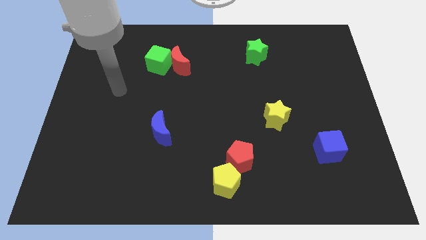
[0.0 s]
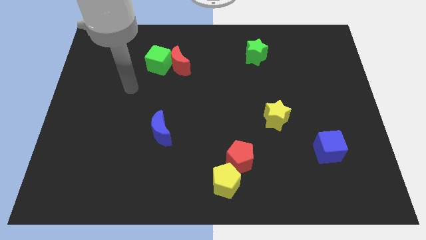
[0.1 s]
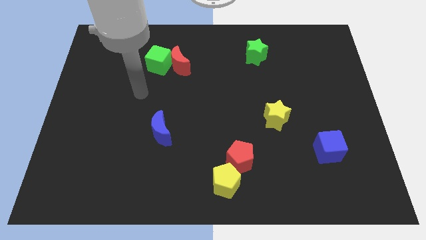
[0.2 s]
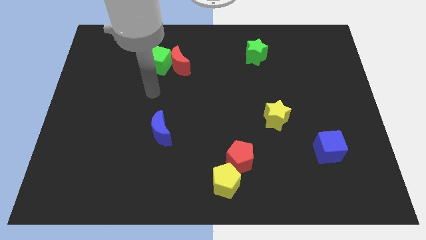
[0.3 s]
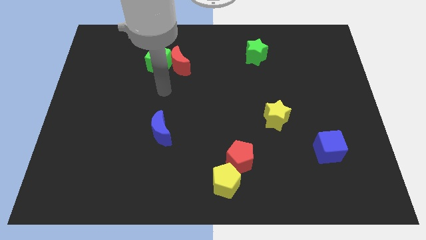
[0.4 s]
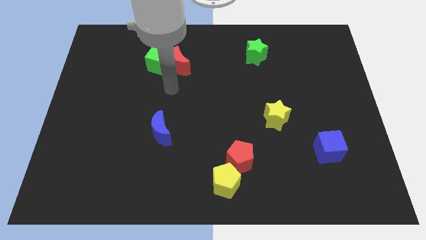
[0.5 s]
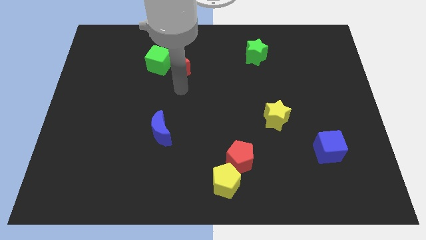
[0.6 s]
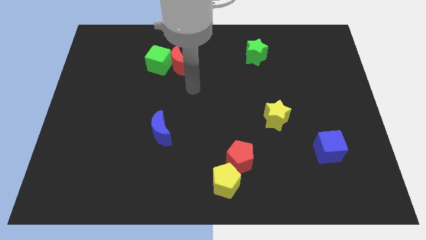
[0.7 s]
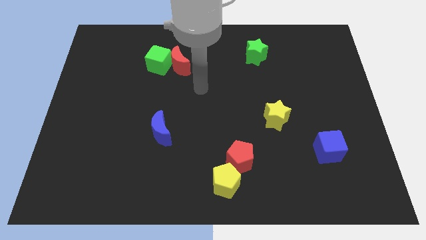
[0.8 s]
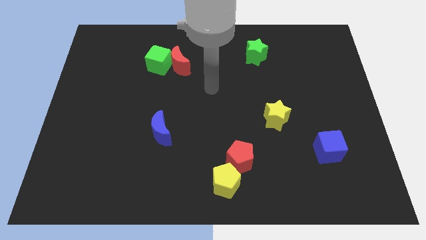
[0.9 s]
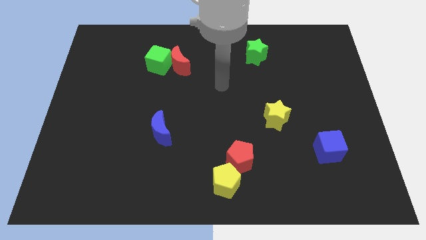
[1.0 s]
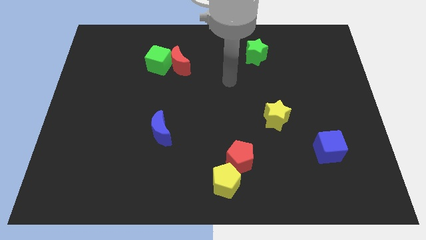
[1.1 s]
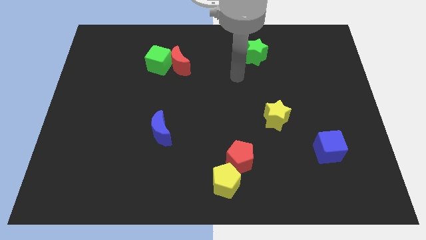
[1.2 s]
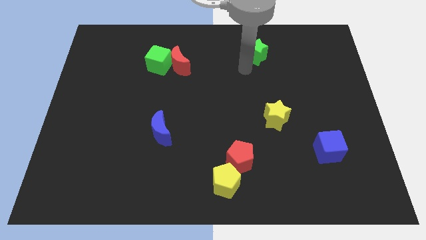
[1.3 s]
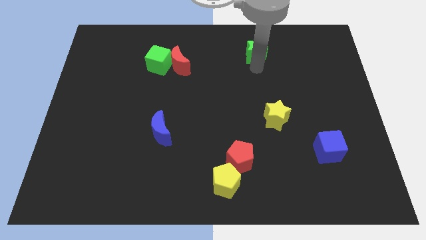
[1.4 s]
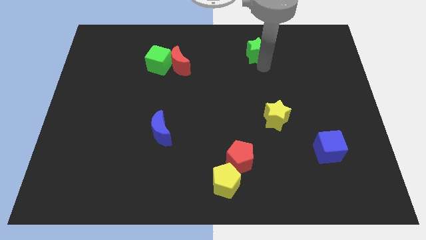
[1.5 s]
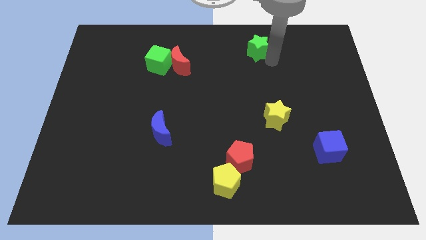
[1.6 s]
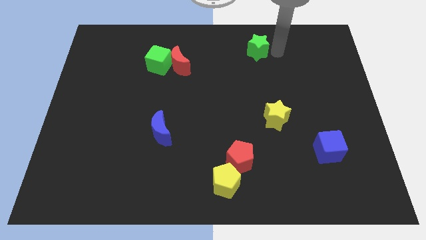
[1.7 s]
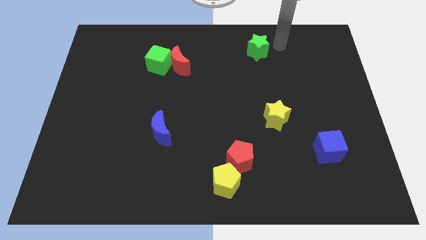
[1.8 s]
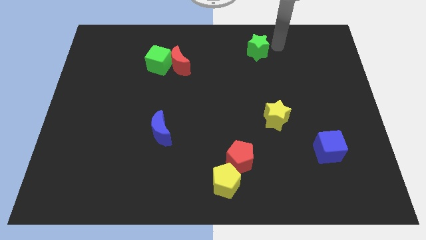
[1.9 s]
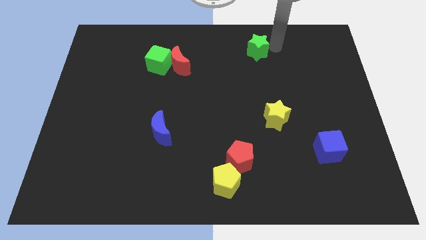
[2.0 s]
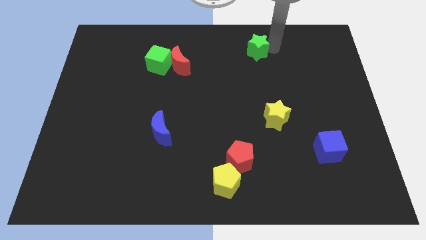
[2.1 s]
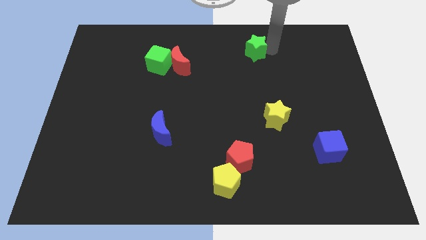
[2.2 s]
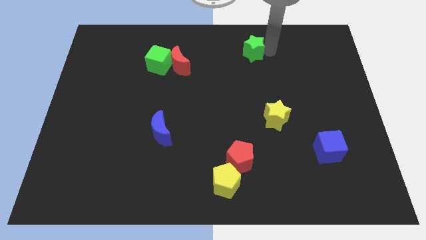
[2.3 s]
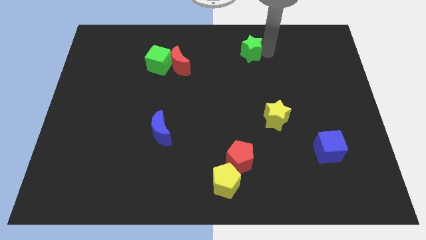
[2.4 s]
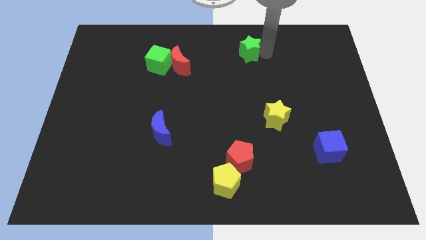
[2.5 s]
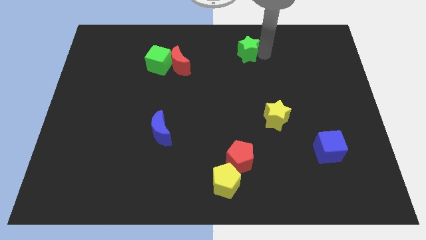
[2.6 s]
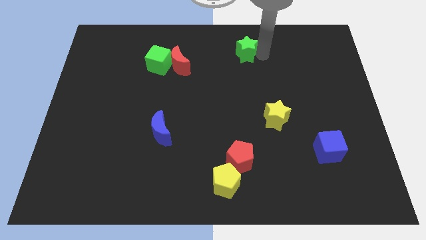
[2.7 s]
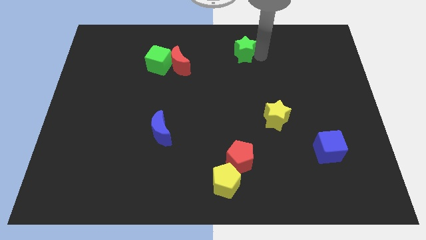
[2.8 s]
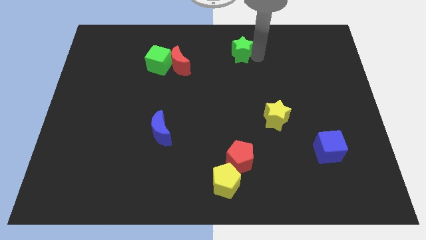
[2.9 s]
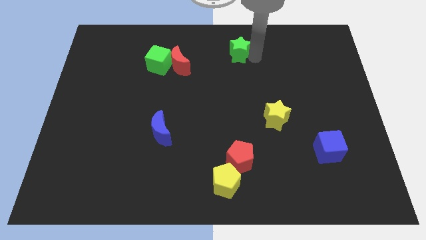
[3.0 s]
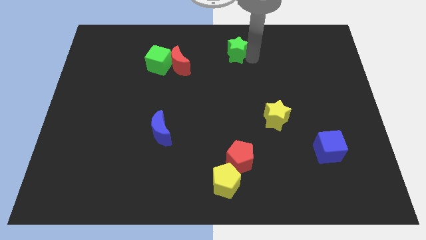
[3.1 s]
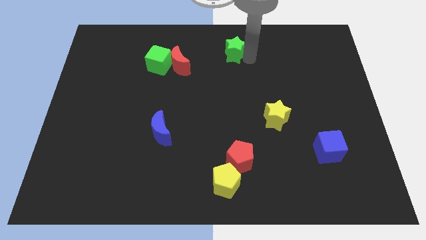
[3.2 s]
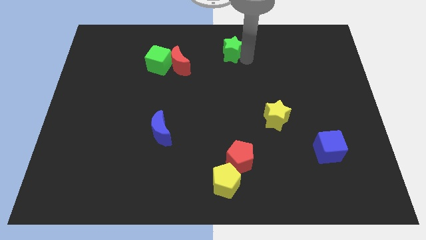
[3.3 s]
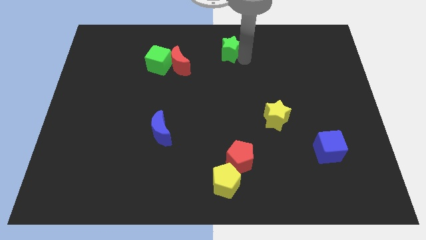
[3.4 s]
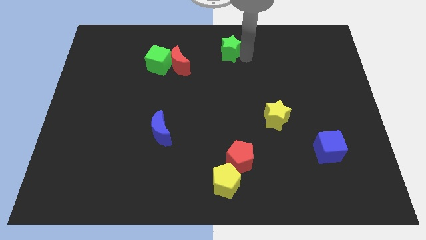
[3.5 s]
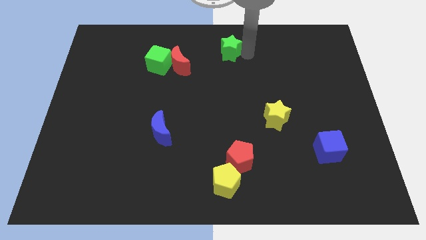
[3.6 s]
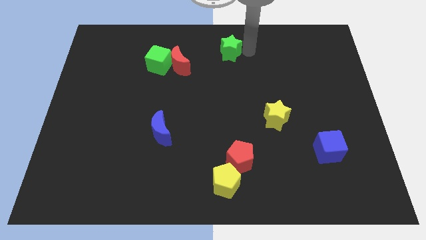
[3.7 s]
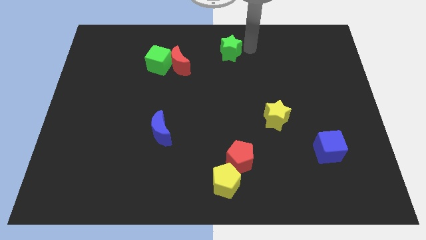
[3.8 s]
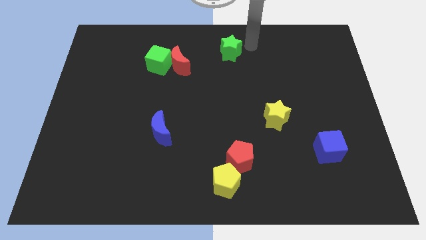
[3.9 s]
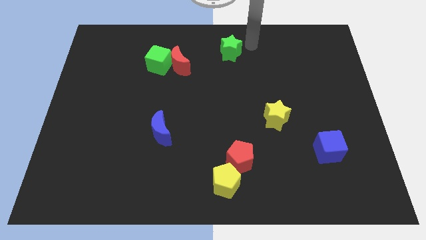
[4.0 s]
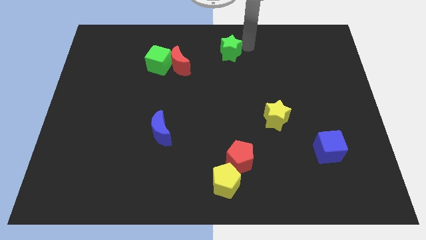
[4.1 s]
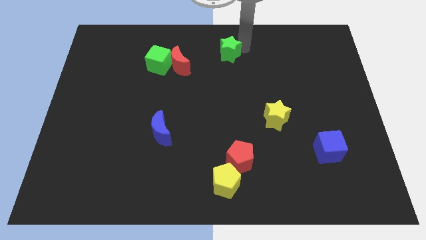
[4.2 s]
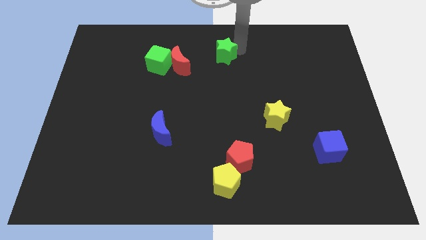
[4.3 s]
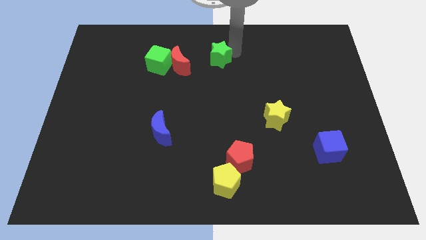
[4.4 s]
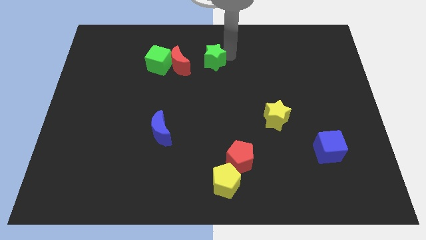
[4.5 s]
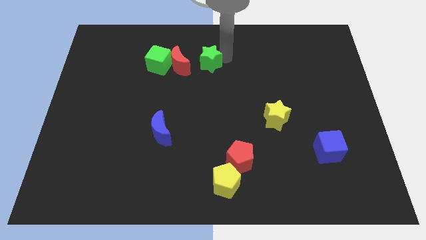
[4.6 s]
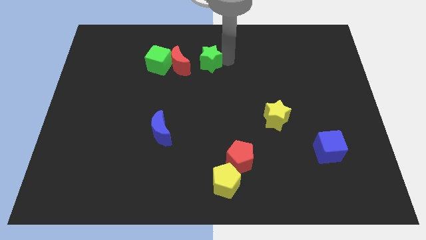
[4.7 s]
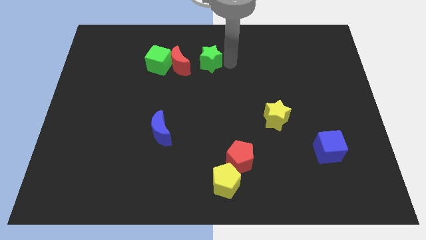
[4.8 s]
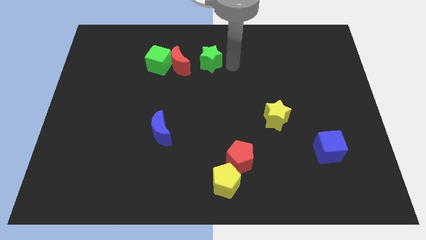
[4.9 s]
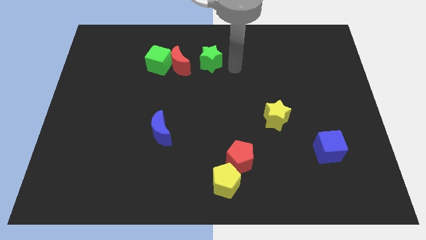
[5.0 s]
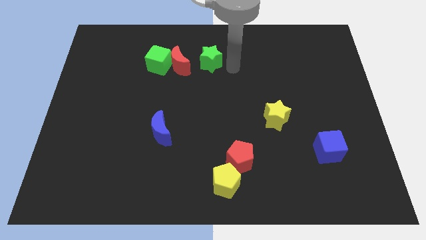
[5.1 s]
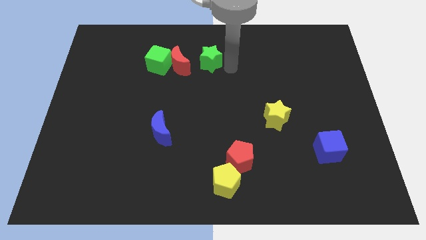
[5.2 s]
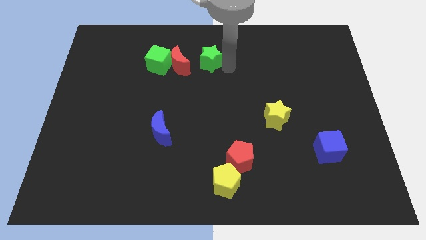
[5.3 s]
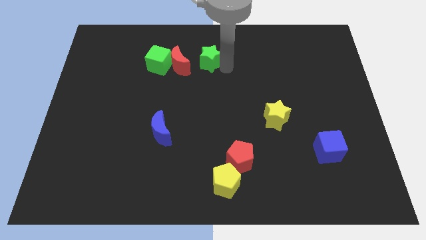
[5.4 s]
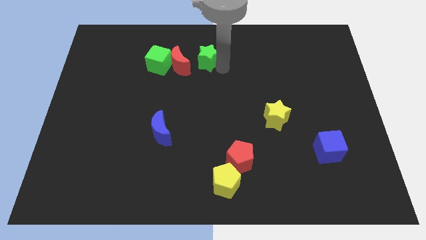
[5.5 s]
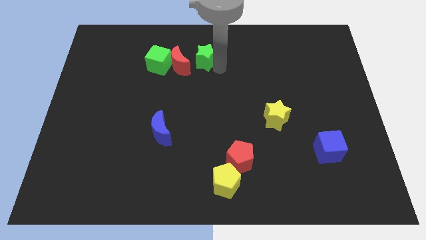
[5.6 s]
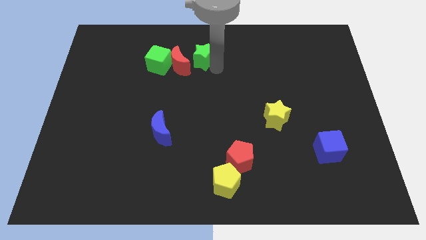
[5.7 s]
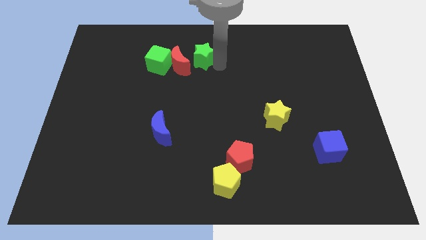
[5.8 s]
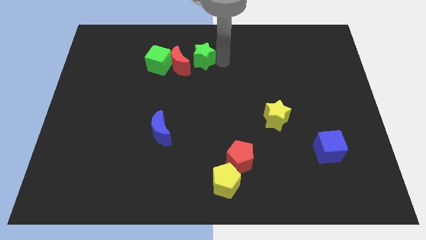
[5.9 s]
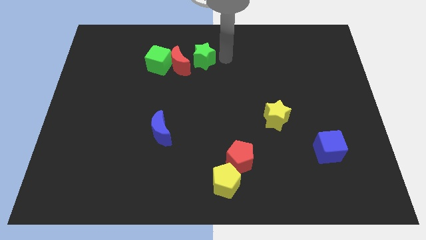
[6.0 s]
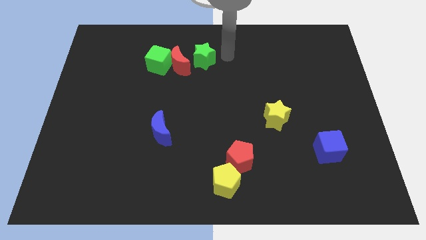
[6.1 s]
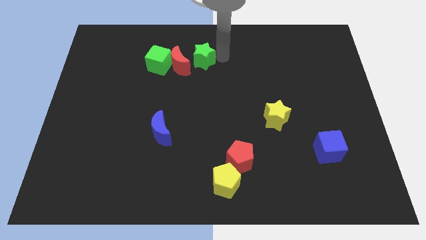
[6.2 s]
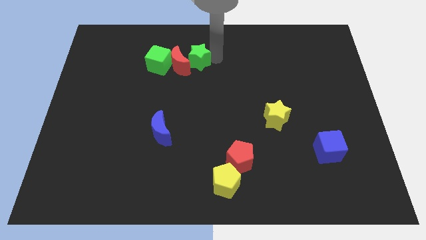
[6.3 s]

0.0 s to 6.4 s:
move the green star towards the red moon

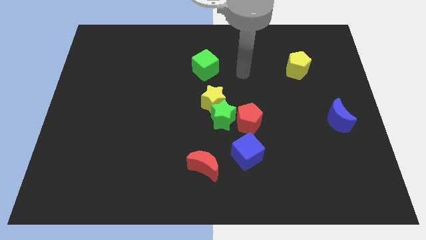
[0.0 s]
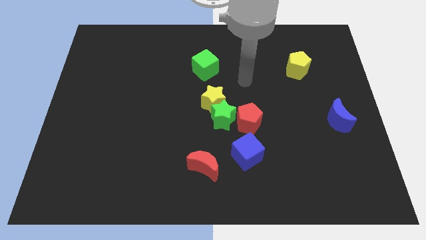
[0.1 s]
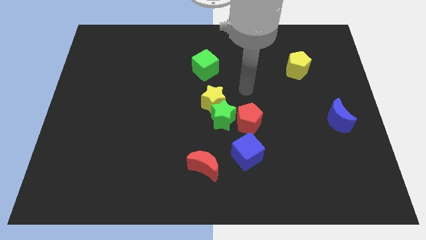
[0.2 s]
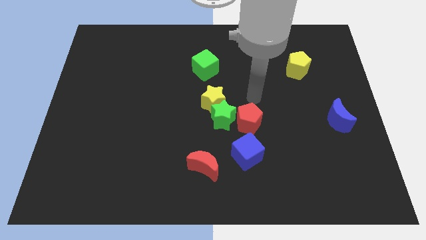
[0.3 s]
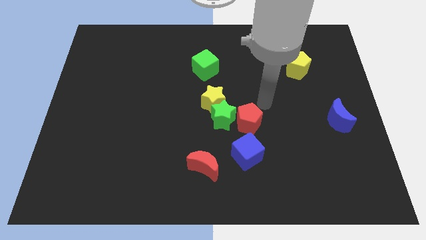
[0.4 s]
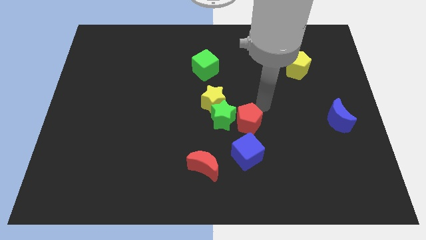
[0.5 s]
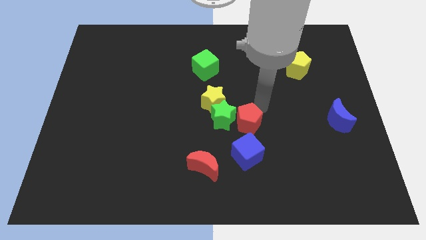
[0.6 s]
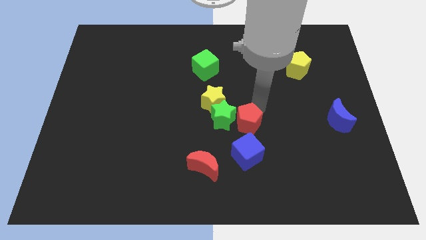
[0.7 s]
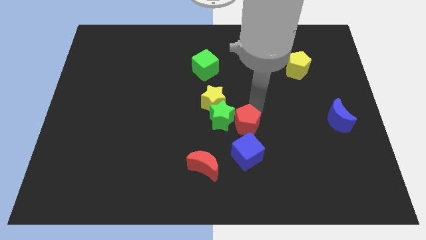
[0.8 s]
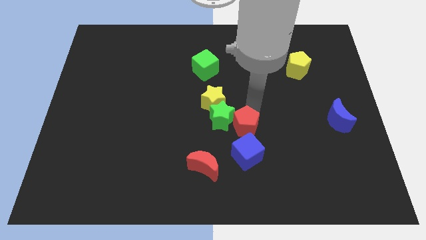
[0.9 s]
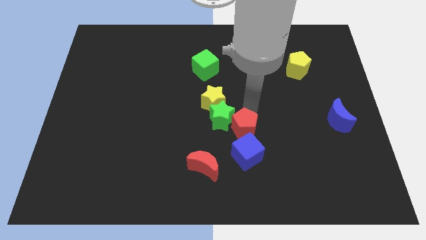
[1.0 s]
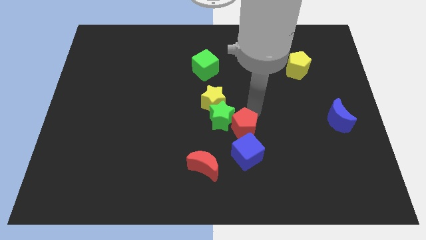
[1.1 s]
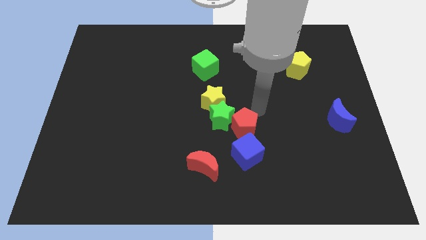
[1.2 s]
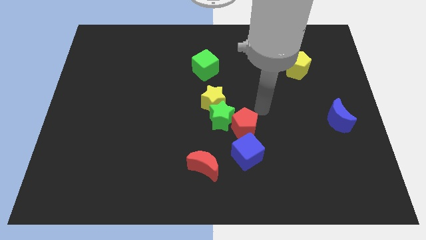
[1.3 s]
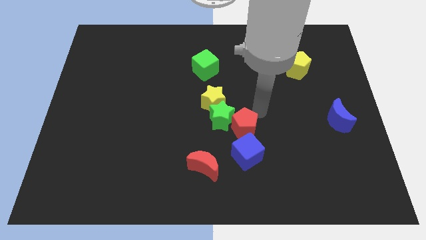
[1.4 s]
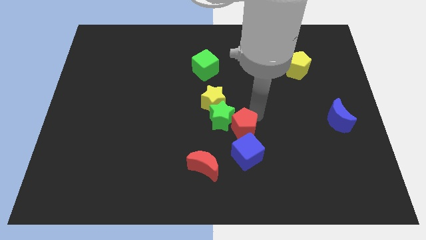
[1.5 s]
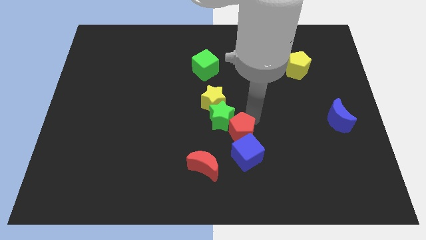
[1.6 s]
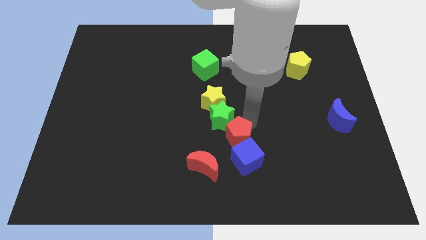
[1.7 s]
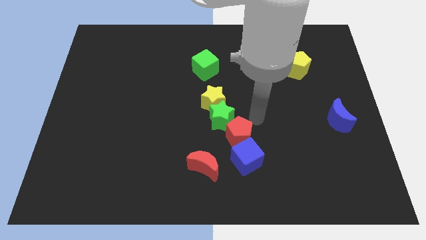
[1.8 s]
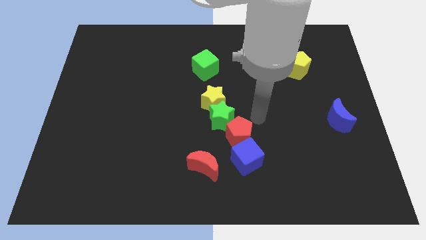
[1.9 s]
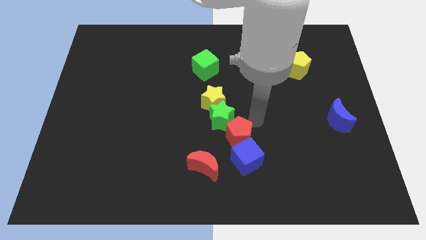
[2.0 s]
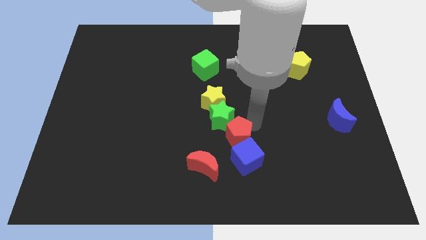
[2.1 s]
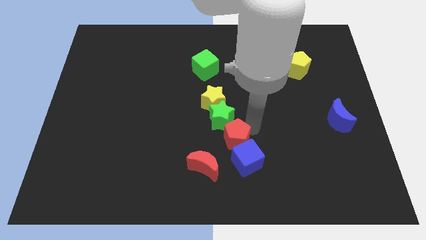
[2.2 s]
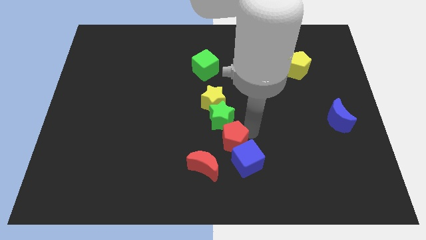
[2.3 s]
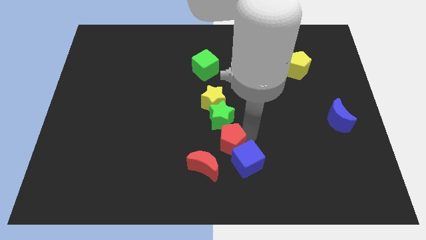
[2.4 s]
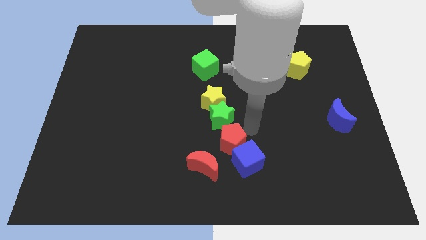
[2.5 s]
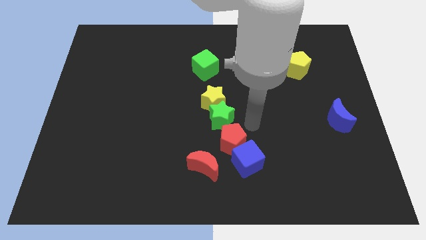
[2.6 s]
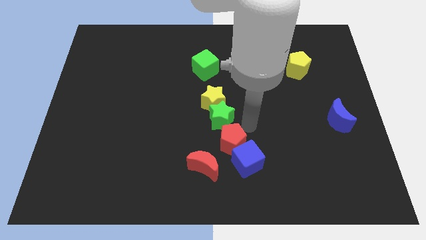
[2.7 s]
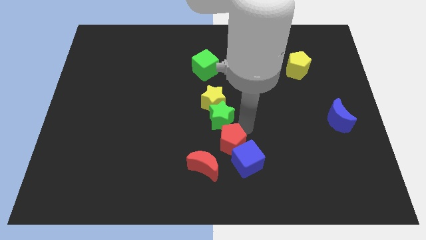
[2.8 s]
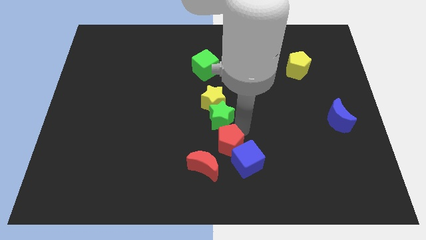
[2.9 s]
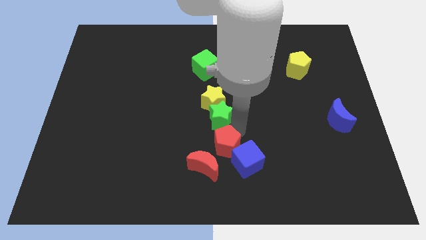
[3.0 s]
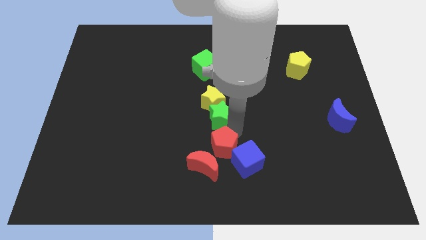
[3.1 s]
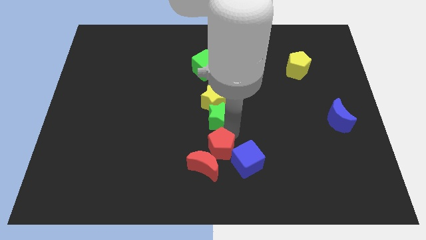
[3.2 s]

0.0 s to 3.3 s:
move the red pentagon towards the red moon
